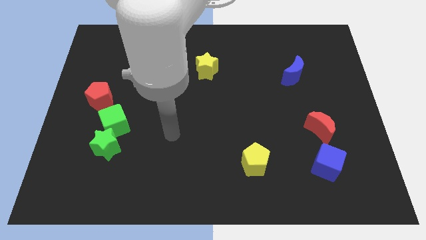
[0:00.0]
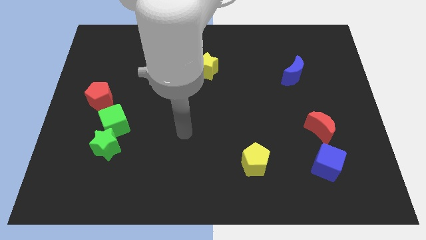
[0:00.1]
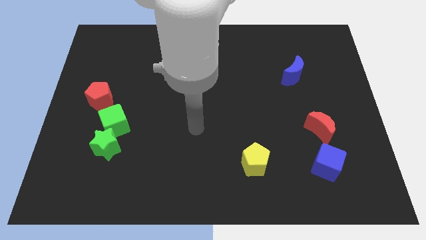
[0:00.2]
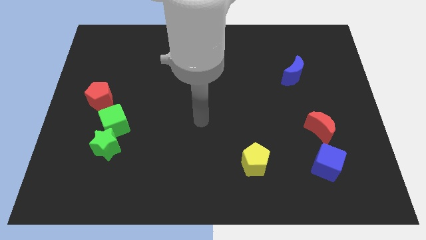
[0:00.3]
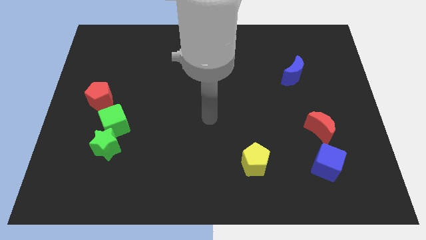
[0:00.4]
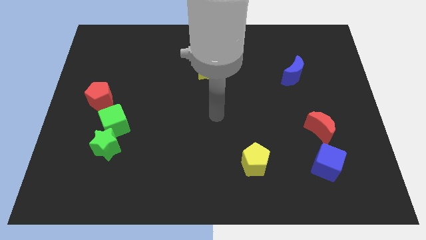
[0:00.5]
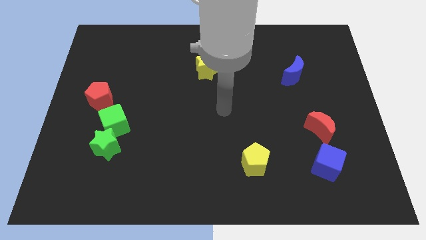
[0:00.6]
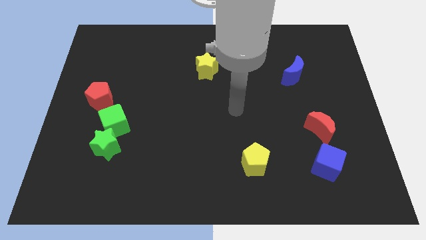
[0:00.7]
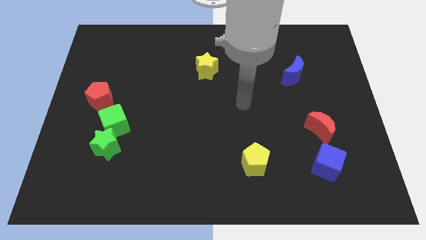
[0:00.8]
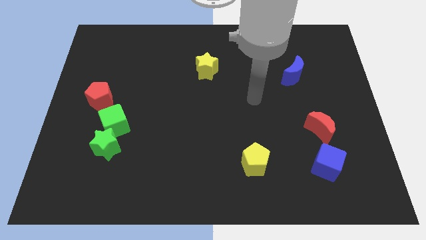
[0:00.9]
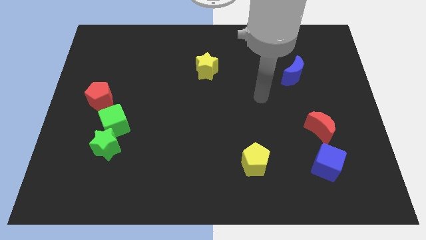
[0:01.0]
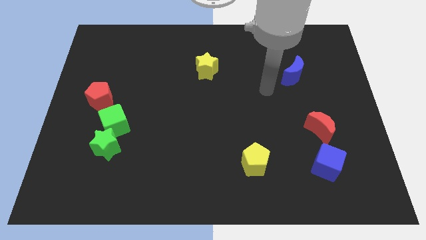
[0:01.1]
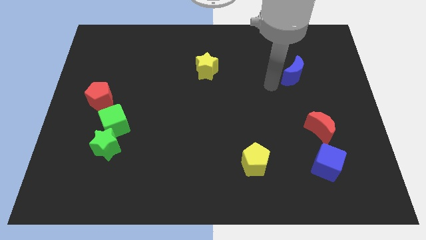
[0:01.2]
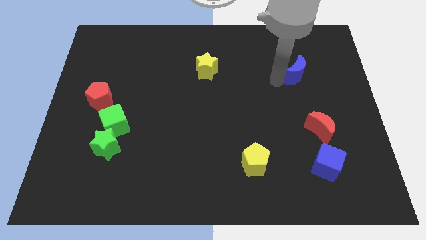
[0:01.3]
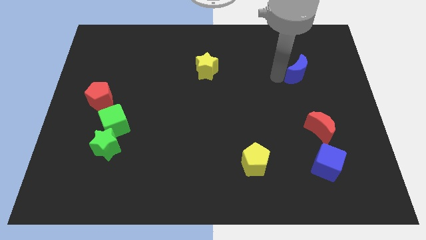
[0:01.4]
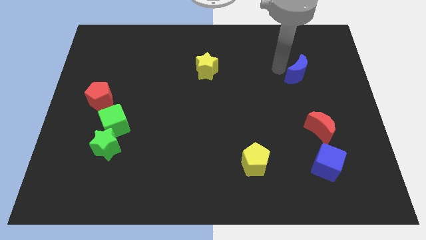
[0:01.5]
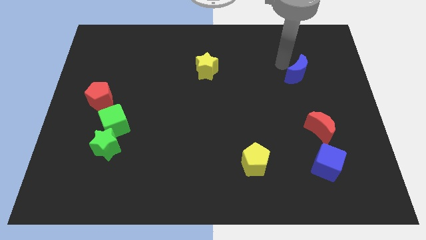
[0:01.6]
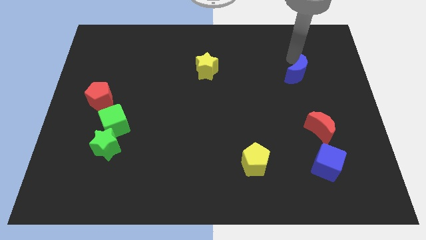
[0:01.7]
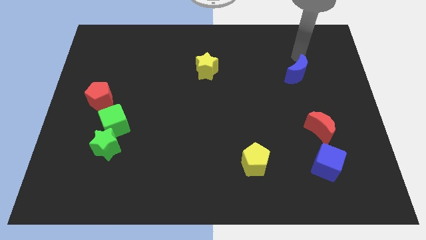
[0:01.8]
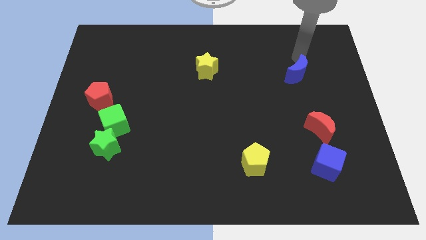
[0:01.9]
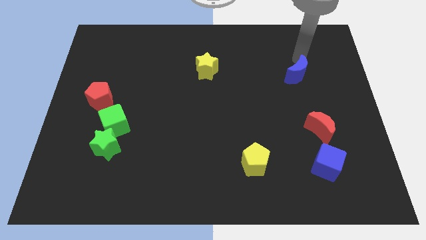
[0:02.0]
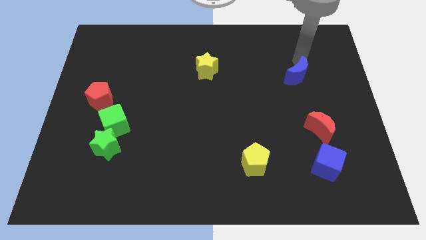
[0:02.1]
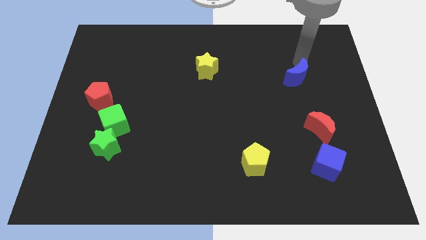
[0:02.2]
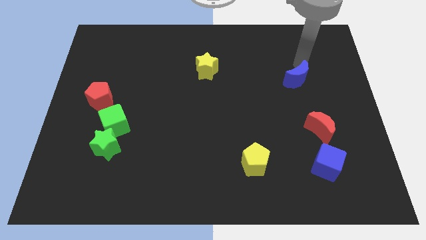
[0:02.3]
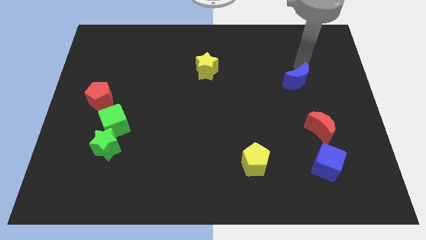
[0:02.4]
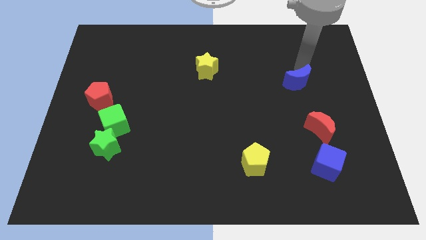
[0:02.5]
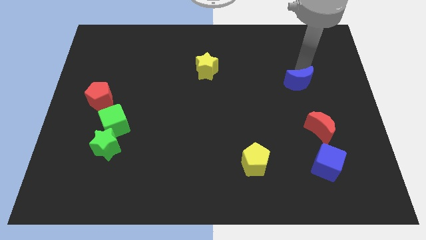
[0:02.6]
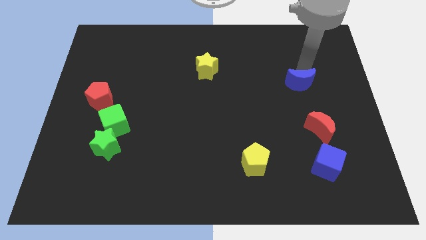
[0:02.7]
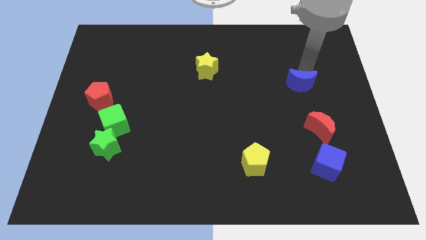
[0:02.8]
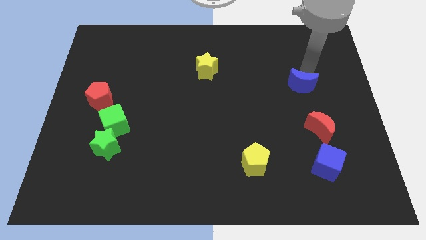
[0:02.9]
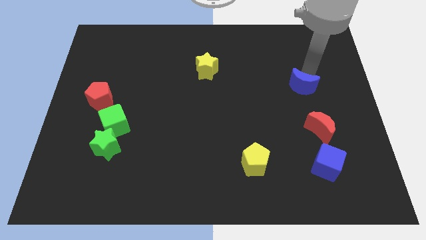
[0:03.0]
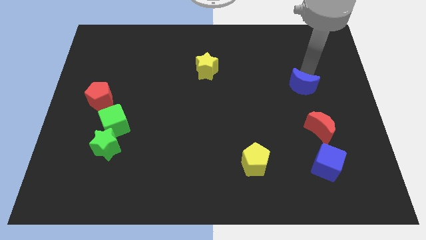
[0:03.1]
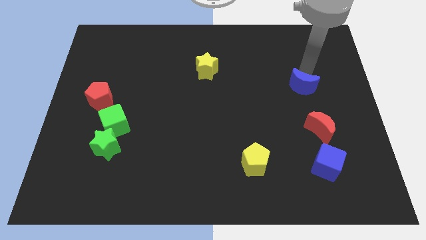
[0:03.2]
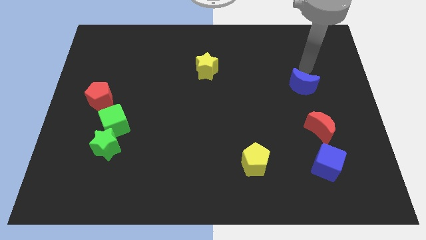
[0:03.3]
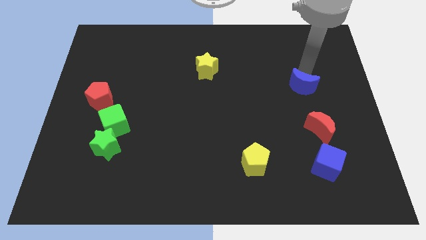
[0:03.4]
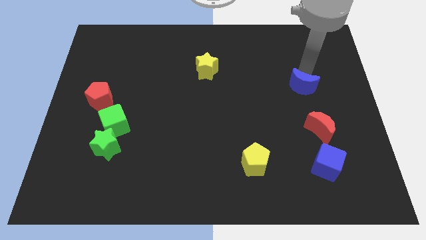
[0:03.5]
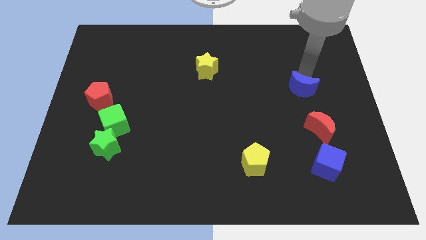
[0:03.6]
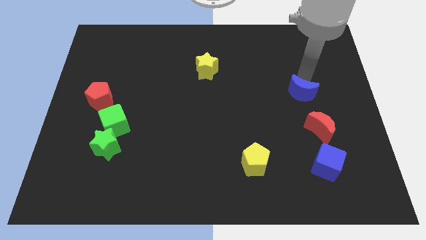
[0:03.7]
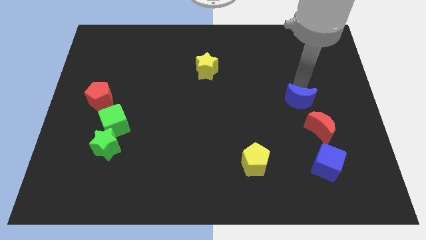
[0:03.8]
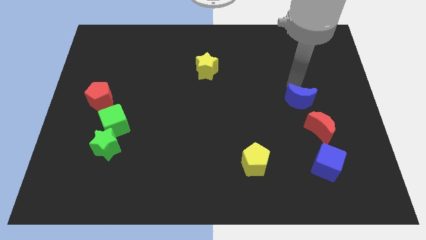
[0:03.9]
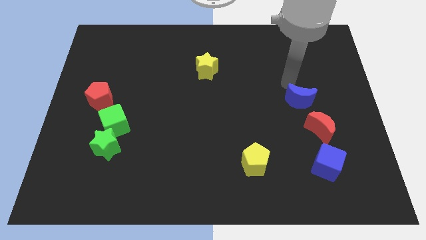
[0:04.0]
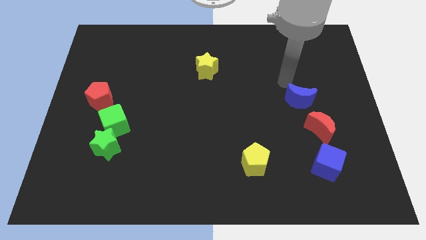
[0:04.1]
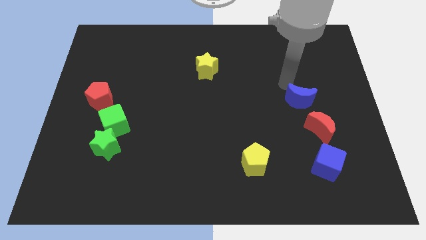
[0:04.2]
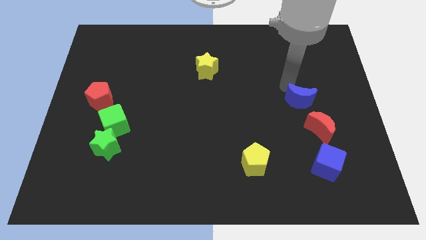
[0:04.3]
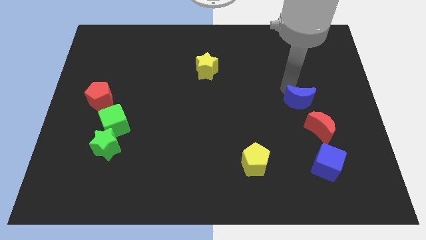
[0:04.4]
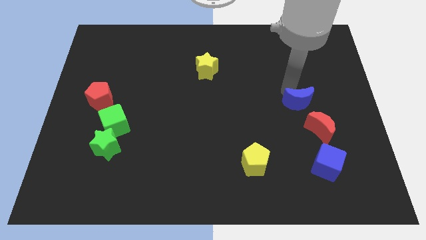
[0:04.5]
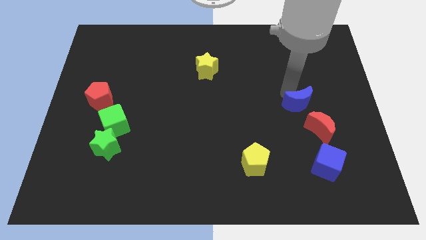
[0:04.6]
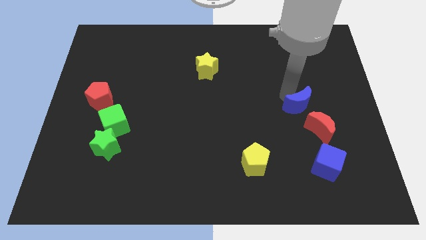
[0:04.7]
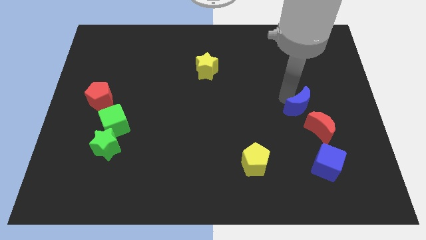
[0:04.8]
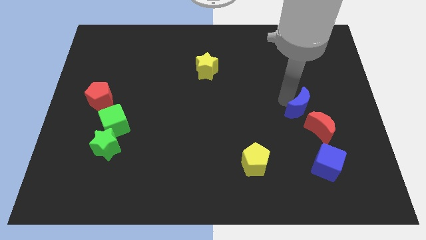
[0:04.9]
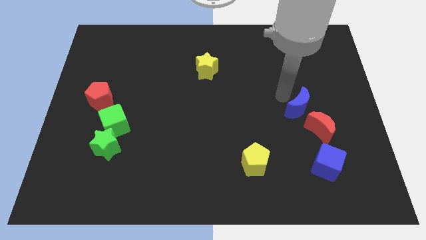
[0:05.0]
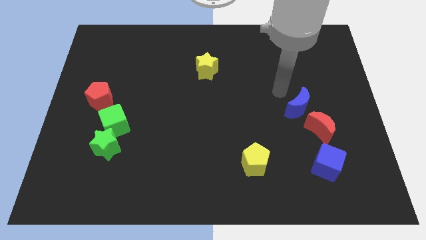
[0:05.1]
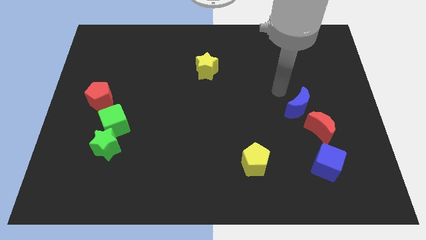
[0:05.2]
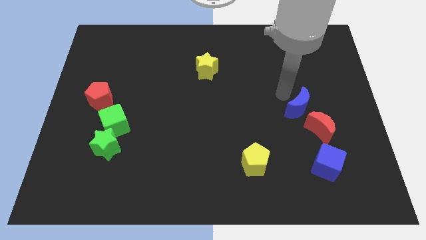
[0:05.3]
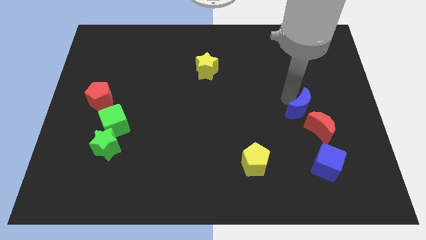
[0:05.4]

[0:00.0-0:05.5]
slide the blue moon to the top of the blue cube
